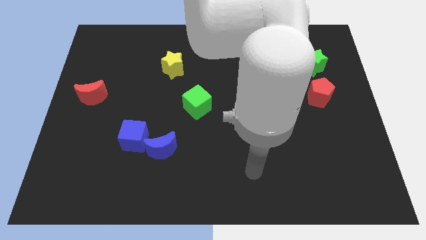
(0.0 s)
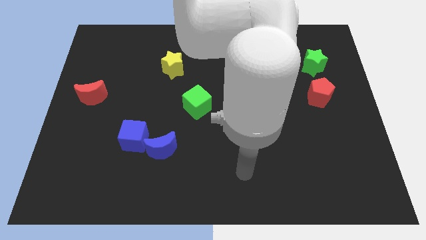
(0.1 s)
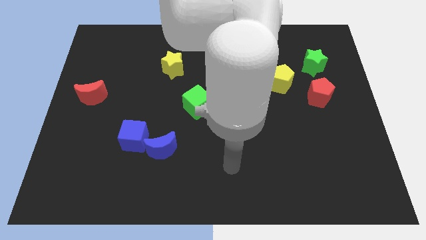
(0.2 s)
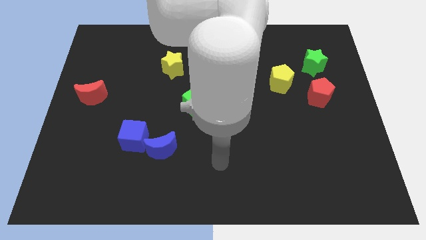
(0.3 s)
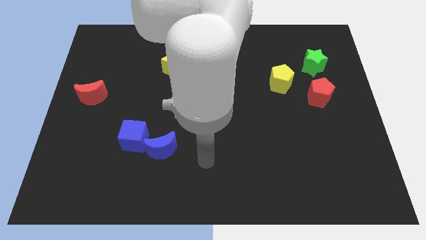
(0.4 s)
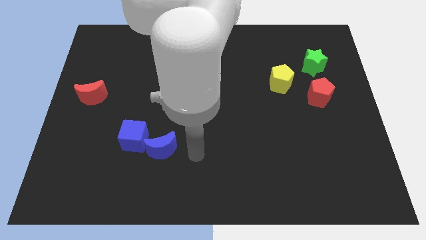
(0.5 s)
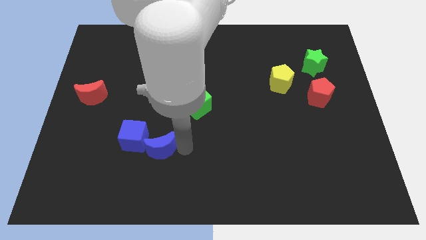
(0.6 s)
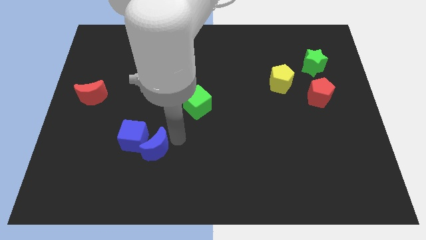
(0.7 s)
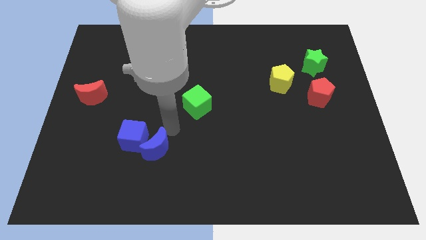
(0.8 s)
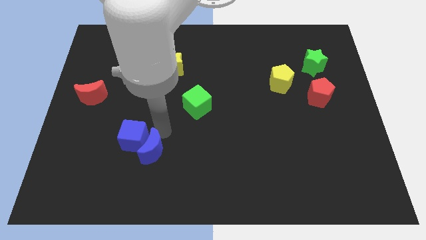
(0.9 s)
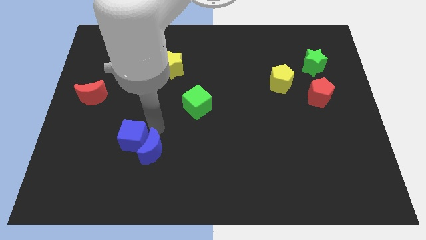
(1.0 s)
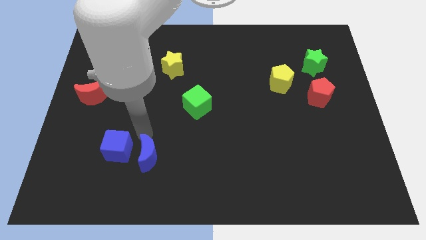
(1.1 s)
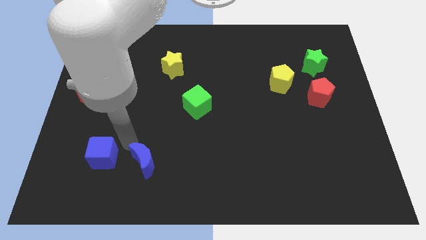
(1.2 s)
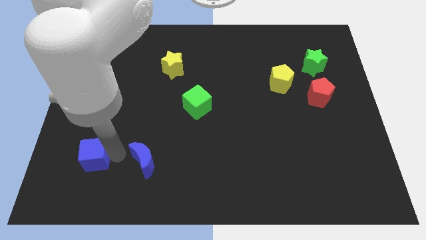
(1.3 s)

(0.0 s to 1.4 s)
separate the blue moon from the blue cube

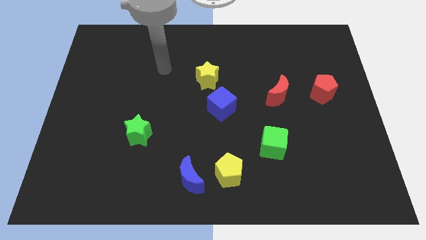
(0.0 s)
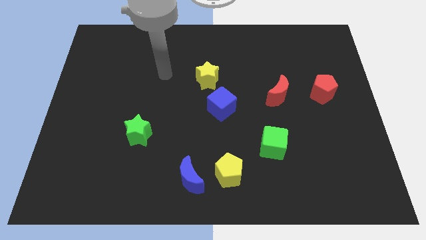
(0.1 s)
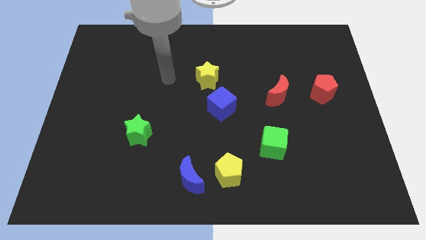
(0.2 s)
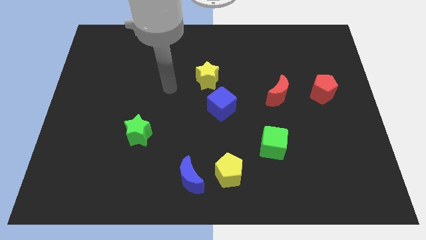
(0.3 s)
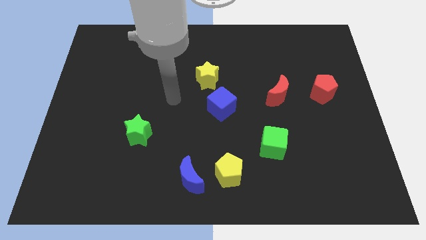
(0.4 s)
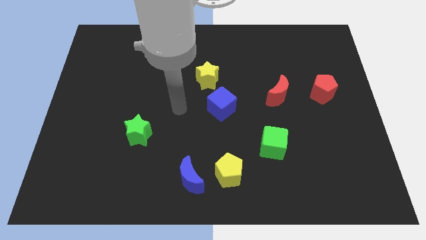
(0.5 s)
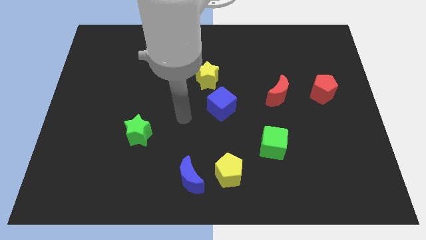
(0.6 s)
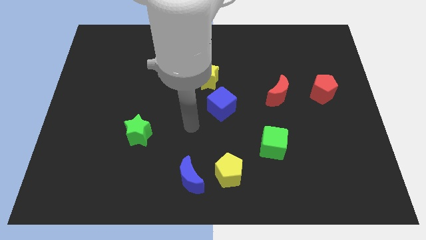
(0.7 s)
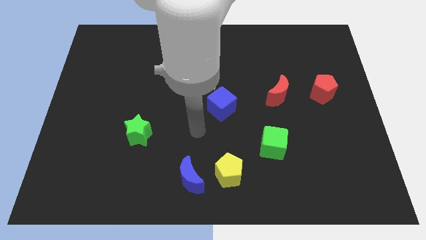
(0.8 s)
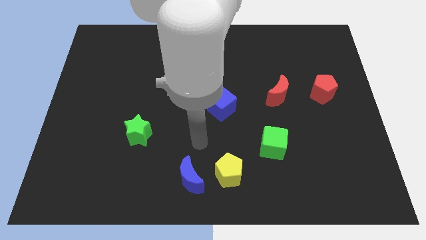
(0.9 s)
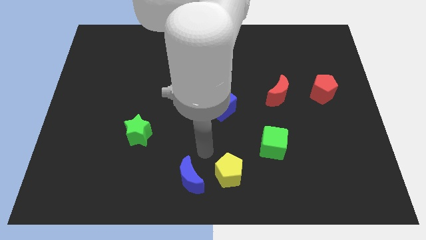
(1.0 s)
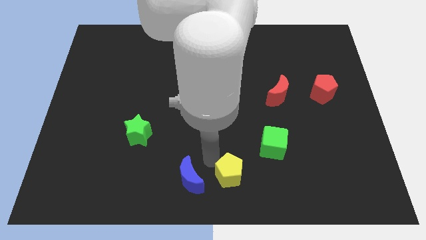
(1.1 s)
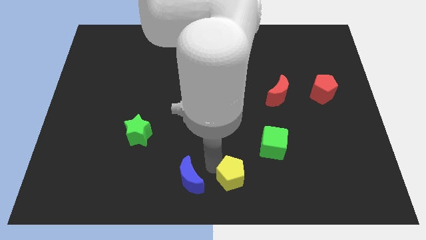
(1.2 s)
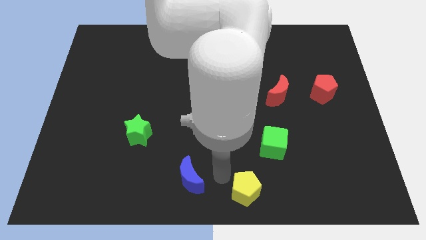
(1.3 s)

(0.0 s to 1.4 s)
move the blue moon away from the yellow pentagon

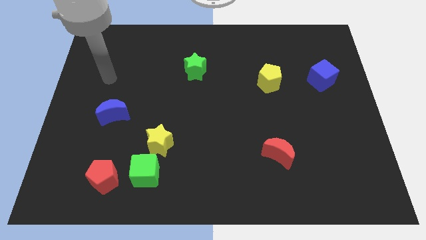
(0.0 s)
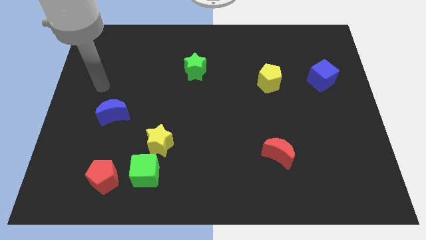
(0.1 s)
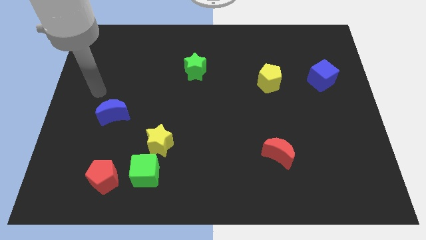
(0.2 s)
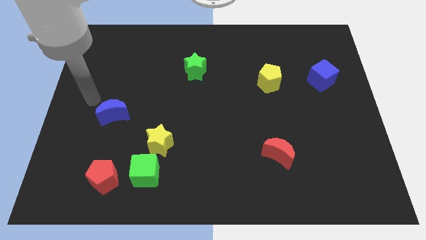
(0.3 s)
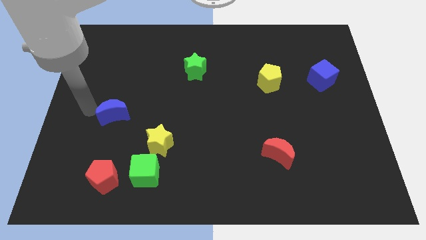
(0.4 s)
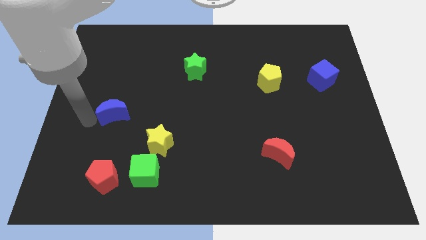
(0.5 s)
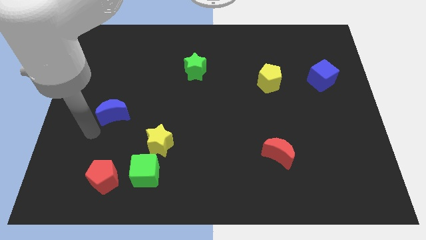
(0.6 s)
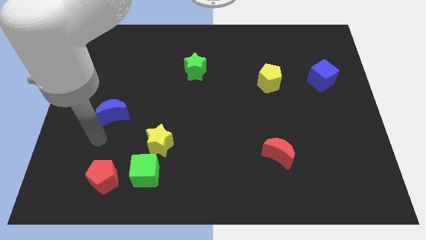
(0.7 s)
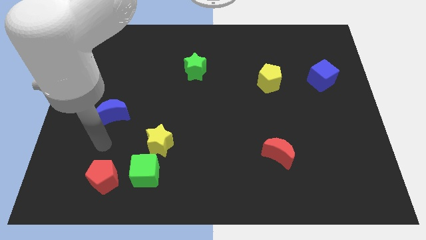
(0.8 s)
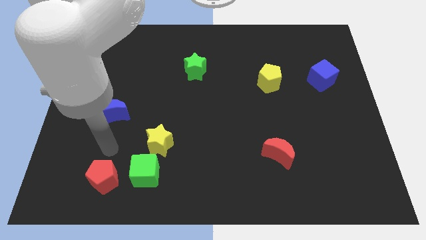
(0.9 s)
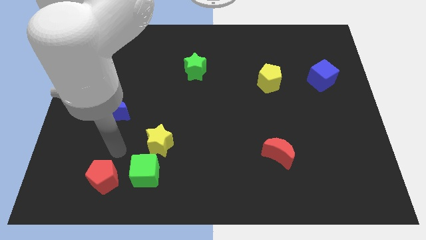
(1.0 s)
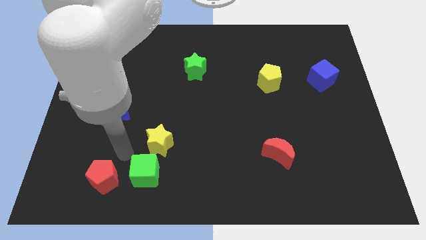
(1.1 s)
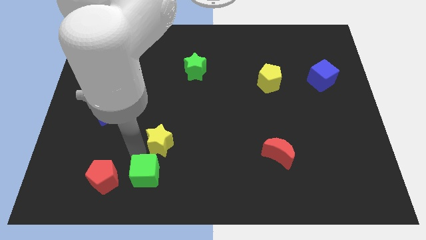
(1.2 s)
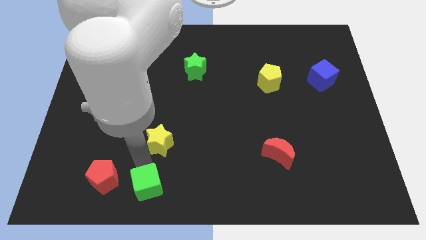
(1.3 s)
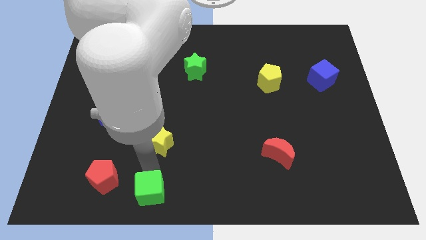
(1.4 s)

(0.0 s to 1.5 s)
move the yellow star away from the green cube

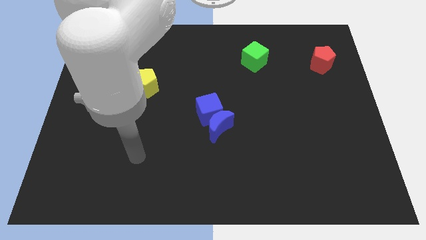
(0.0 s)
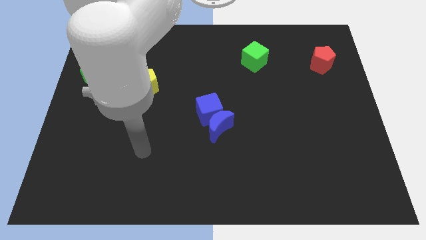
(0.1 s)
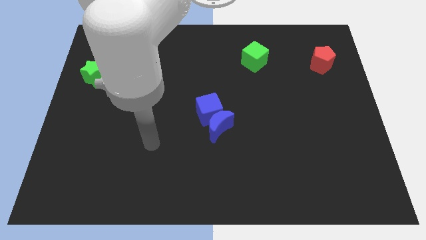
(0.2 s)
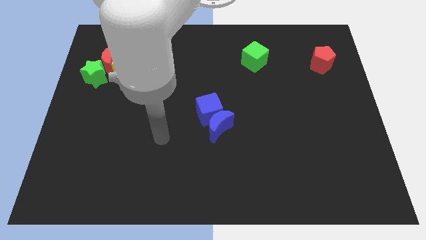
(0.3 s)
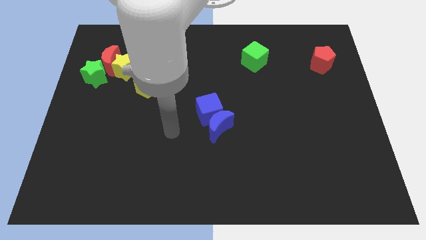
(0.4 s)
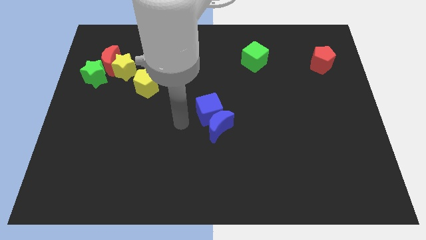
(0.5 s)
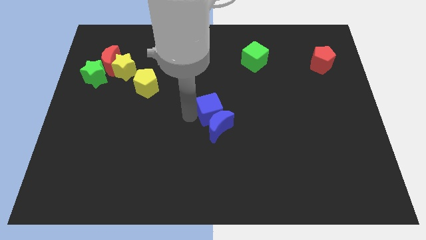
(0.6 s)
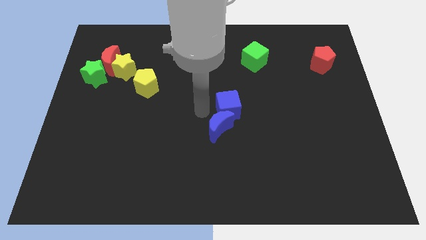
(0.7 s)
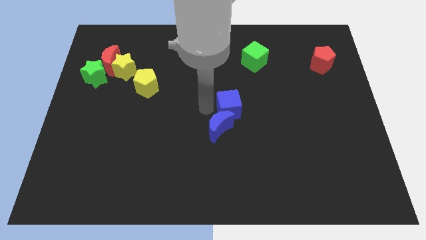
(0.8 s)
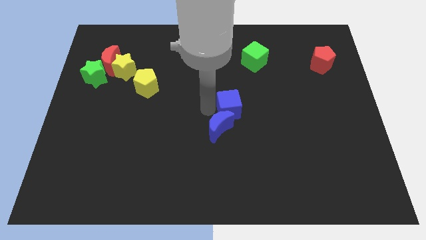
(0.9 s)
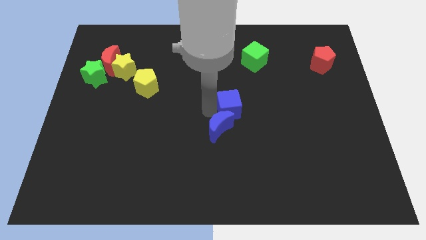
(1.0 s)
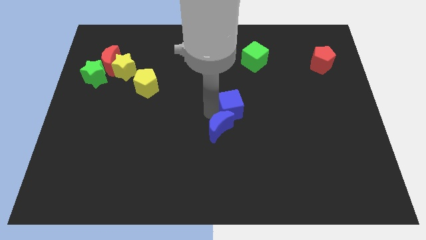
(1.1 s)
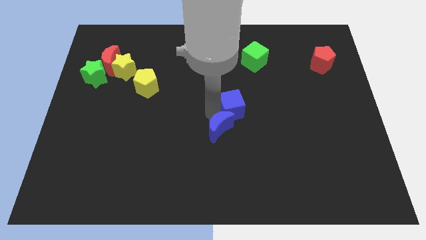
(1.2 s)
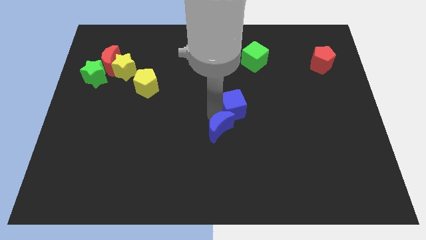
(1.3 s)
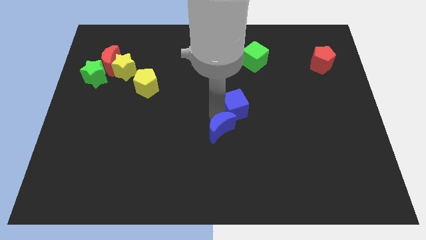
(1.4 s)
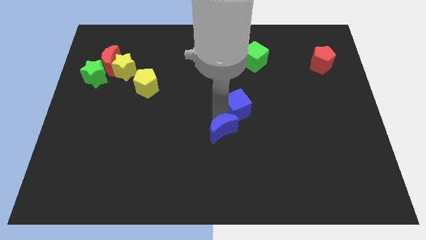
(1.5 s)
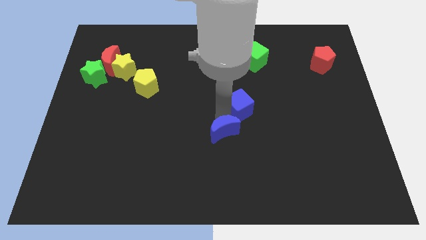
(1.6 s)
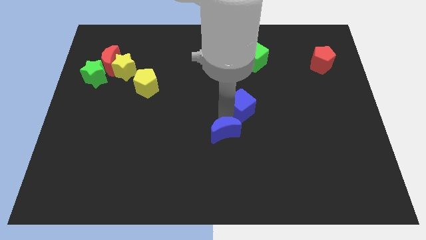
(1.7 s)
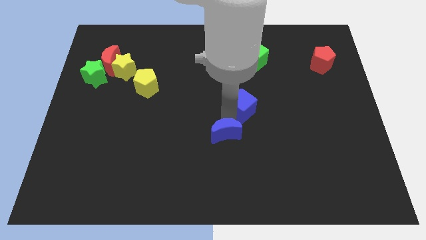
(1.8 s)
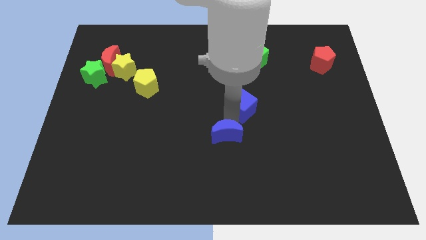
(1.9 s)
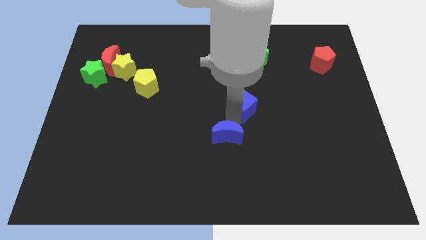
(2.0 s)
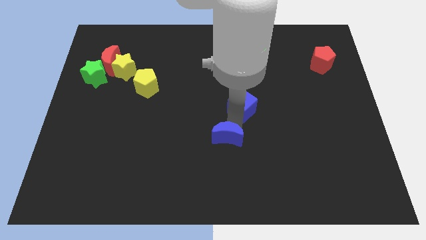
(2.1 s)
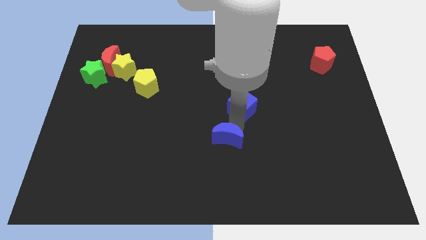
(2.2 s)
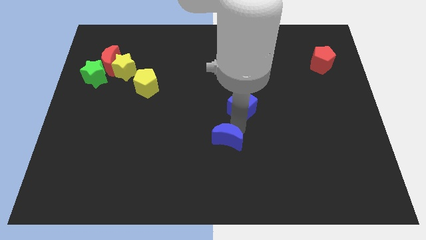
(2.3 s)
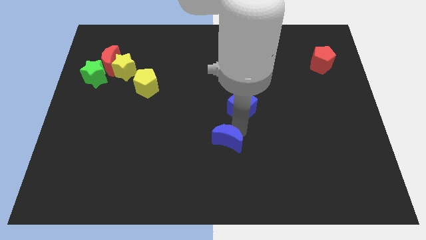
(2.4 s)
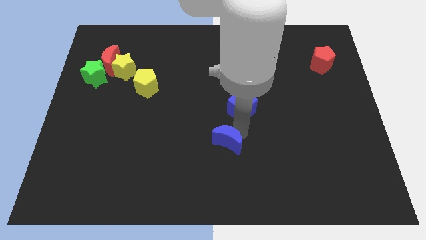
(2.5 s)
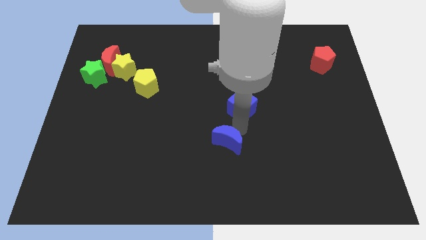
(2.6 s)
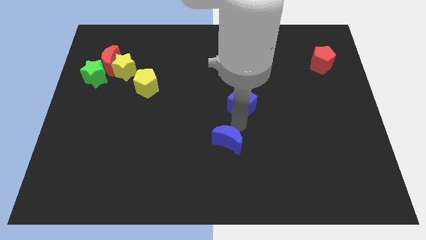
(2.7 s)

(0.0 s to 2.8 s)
move the blue moon away from the blue cube

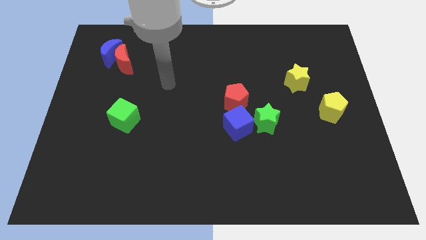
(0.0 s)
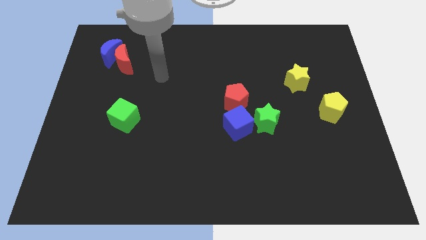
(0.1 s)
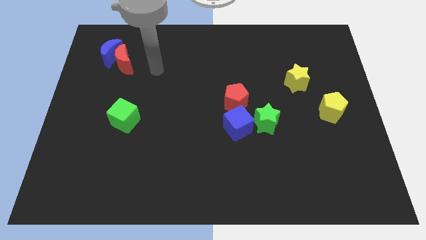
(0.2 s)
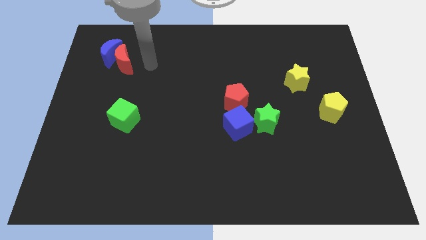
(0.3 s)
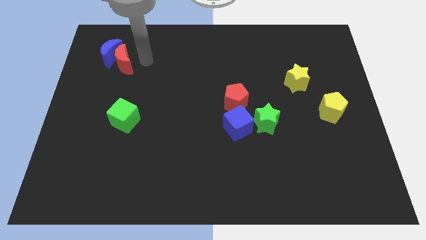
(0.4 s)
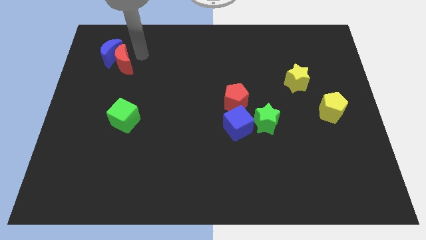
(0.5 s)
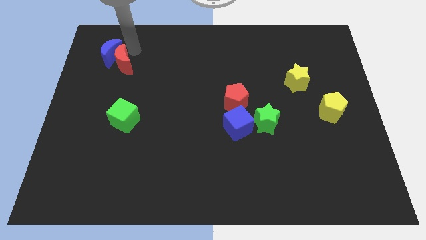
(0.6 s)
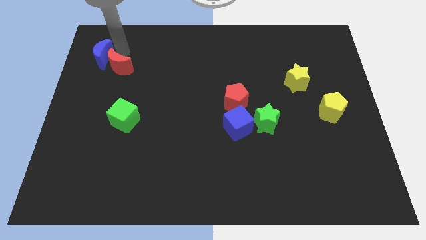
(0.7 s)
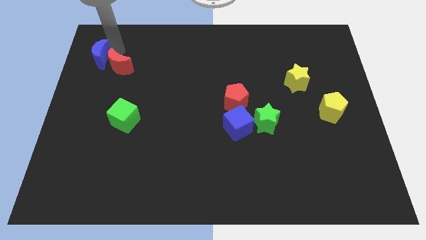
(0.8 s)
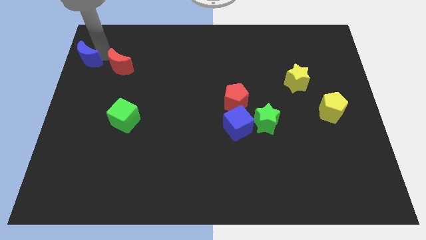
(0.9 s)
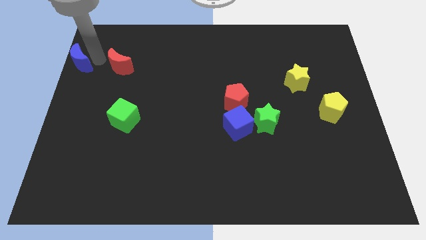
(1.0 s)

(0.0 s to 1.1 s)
pull the red moon apart from the blue moon

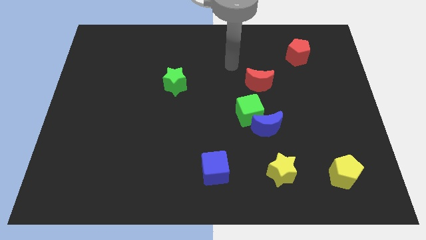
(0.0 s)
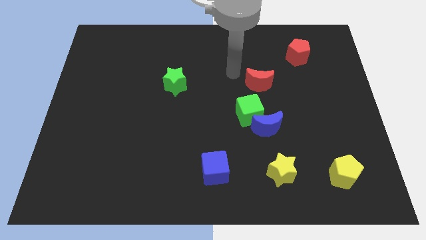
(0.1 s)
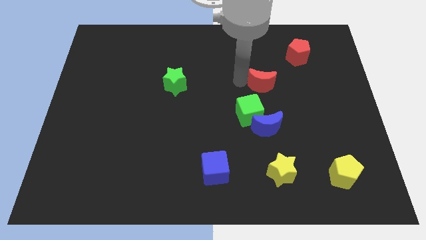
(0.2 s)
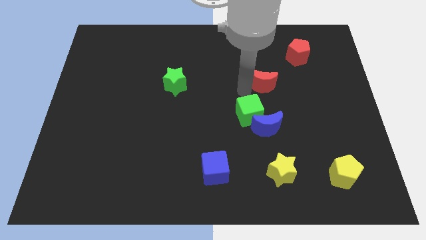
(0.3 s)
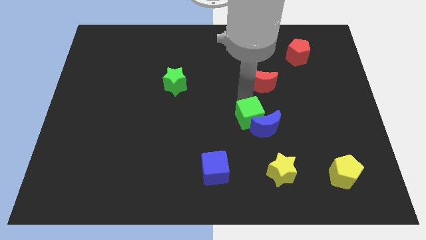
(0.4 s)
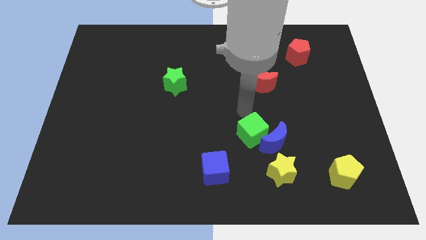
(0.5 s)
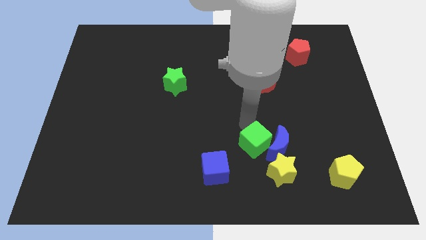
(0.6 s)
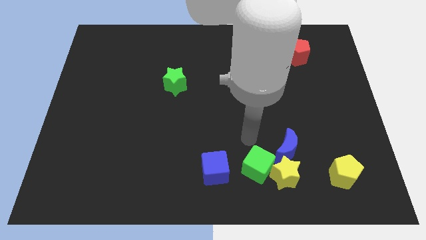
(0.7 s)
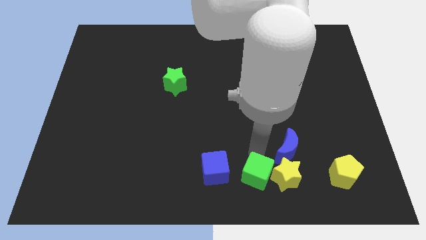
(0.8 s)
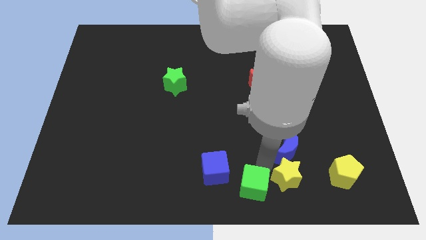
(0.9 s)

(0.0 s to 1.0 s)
separate the blue moon from the green cube

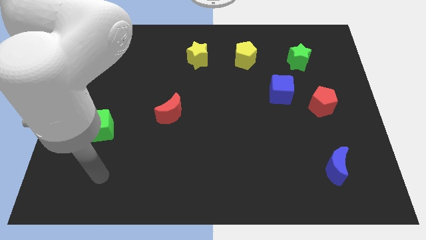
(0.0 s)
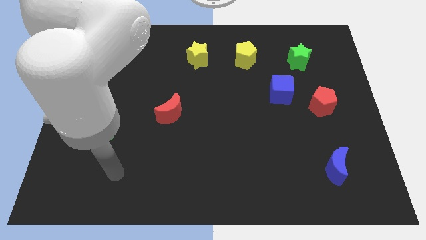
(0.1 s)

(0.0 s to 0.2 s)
pull the red pentagon apart from the blue cube
